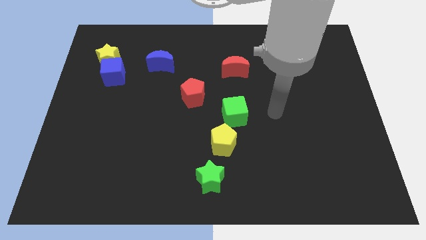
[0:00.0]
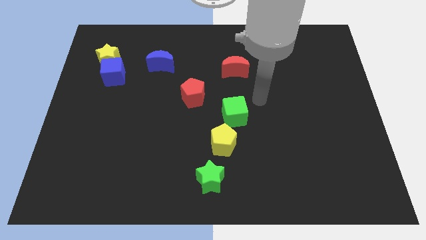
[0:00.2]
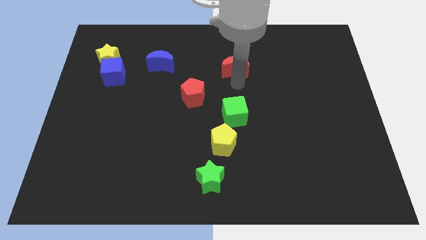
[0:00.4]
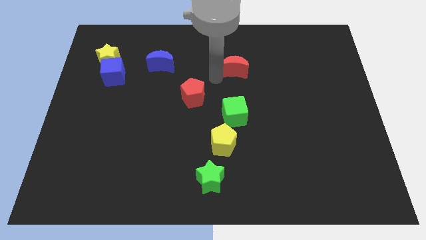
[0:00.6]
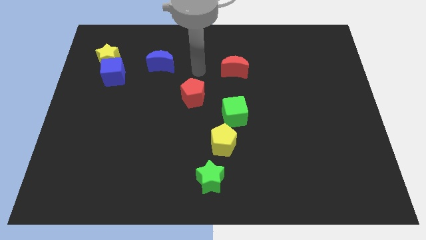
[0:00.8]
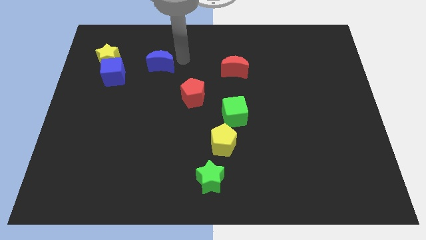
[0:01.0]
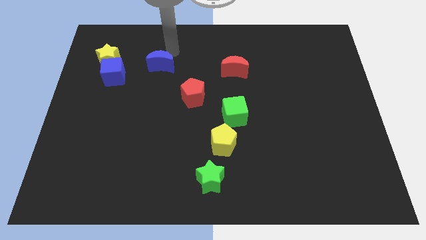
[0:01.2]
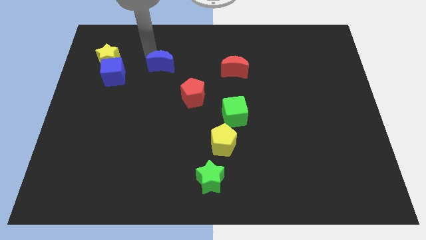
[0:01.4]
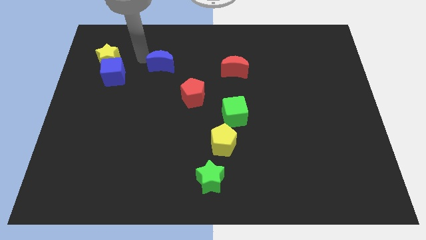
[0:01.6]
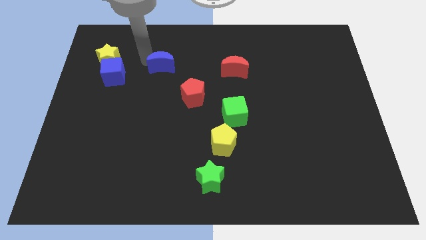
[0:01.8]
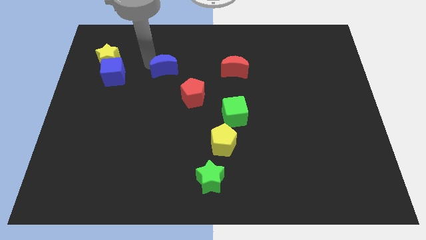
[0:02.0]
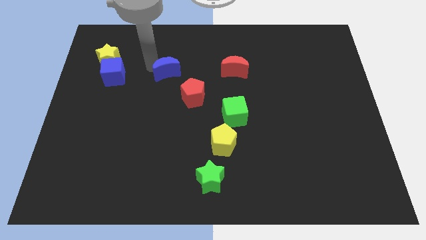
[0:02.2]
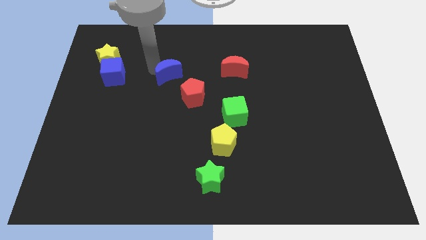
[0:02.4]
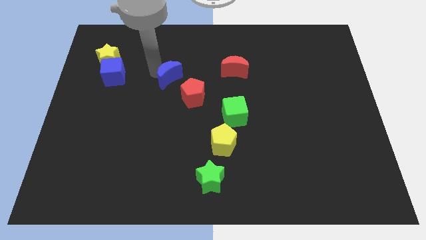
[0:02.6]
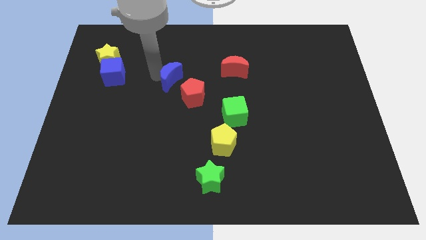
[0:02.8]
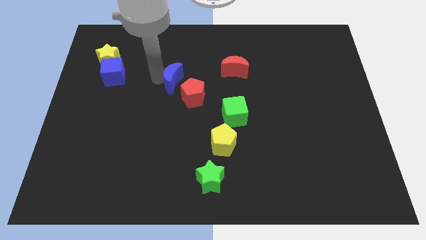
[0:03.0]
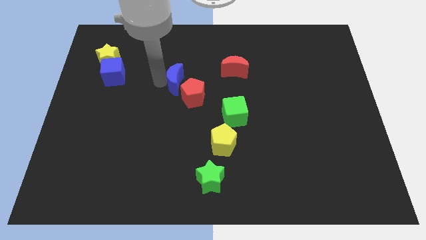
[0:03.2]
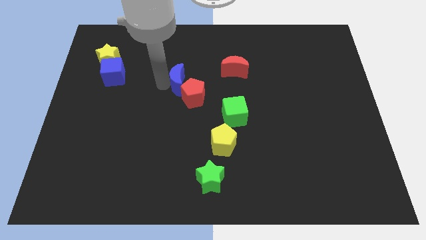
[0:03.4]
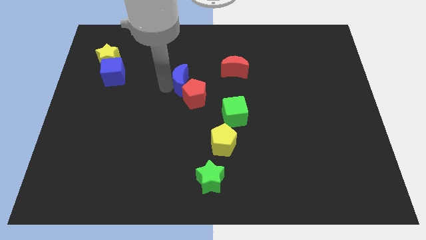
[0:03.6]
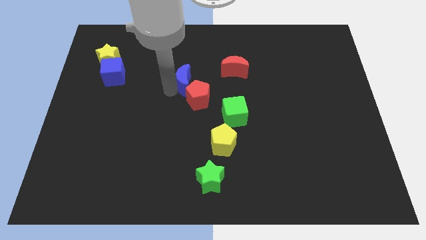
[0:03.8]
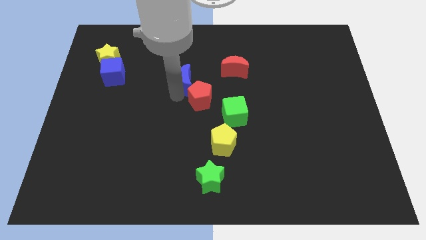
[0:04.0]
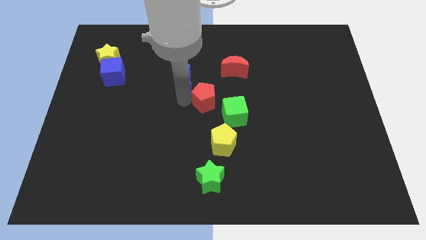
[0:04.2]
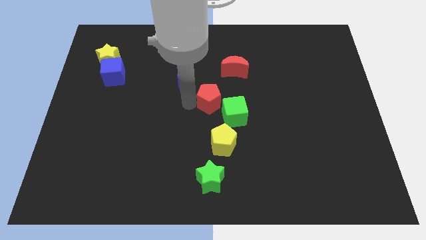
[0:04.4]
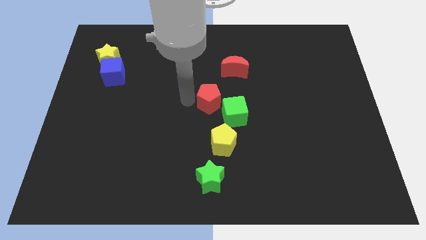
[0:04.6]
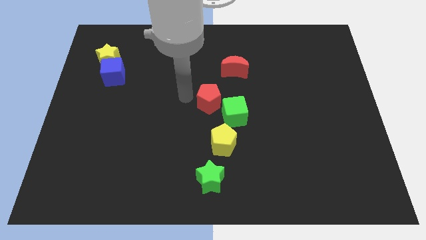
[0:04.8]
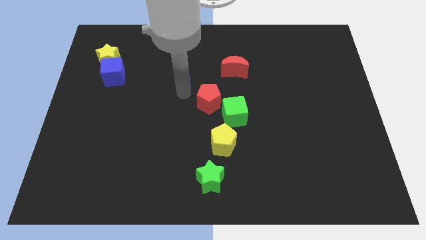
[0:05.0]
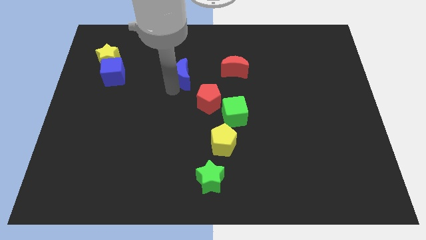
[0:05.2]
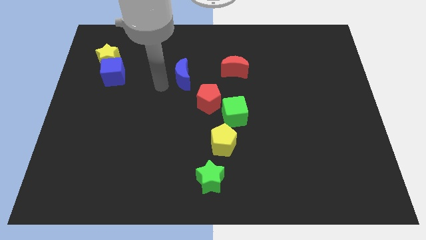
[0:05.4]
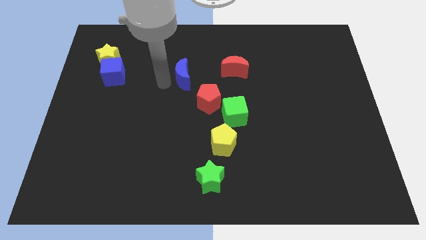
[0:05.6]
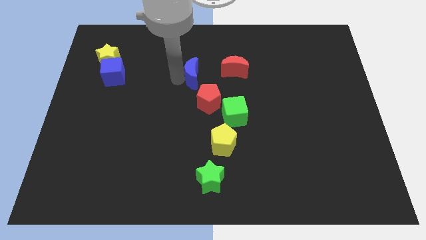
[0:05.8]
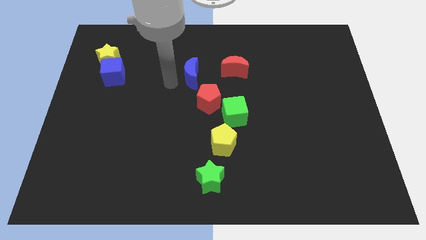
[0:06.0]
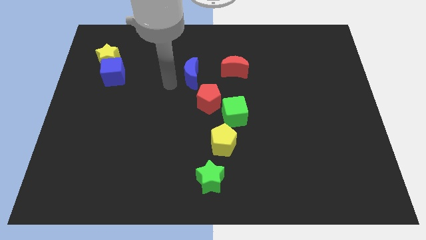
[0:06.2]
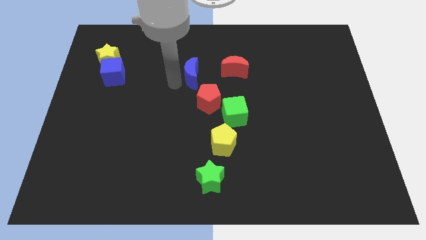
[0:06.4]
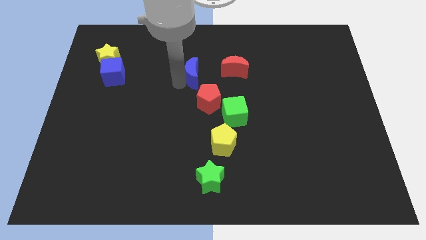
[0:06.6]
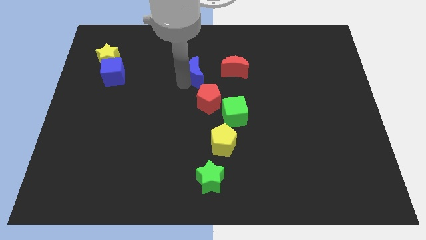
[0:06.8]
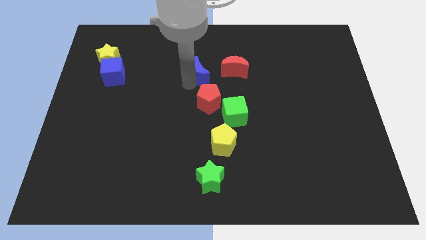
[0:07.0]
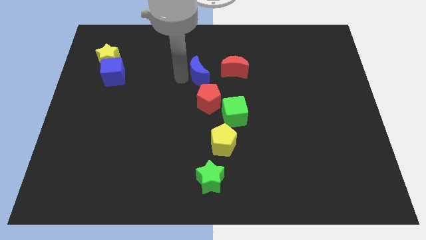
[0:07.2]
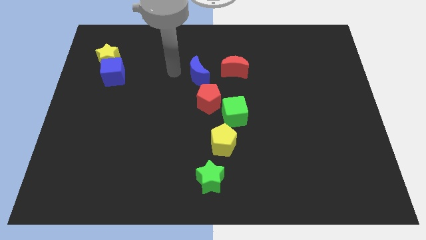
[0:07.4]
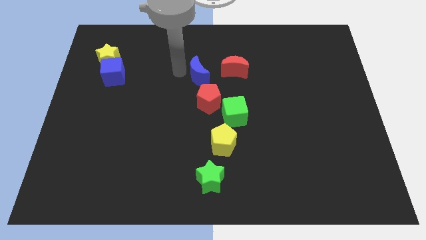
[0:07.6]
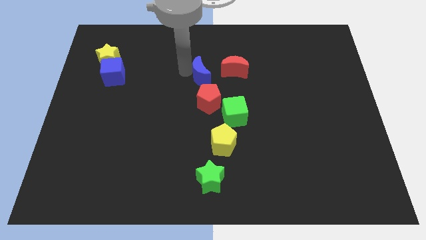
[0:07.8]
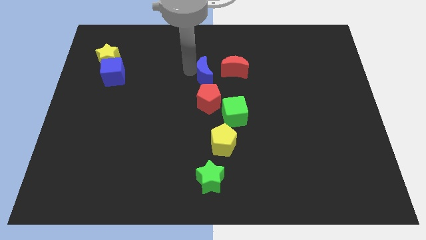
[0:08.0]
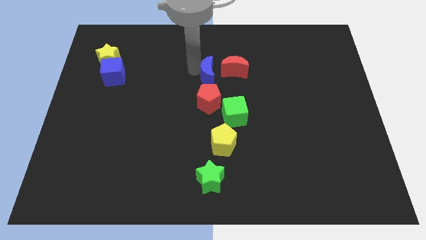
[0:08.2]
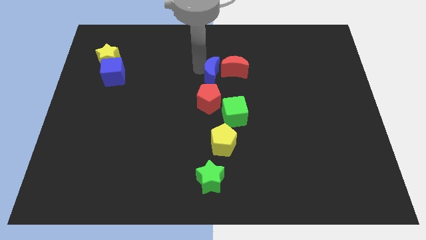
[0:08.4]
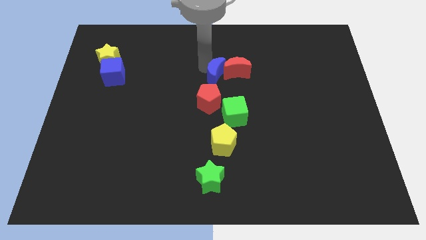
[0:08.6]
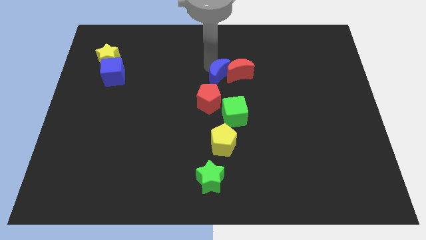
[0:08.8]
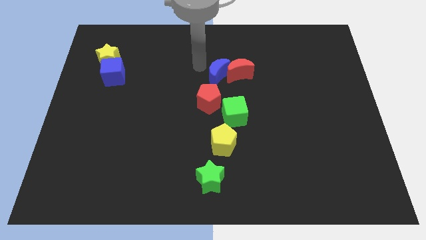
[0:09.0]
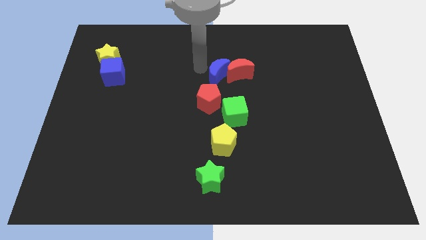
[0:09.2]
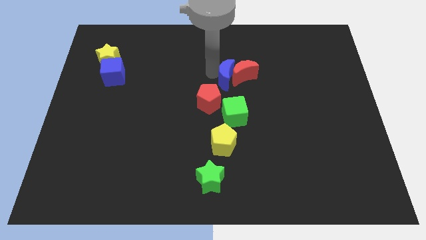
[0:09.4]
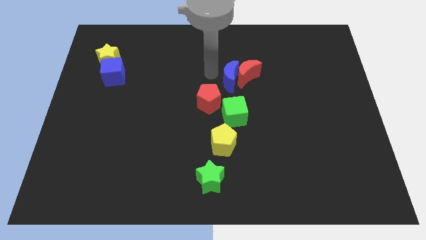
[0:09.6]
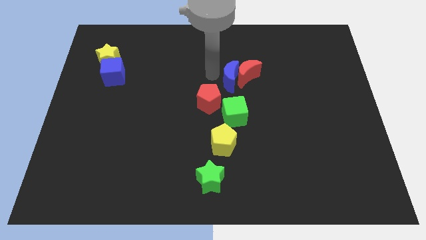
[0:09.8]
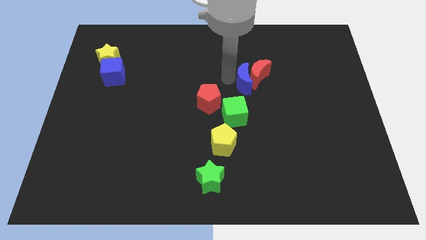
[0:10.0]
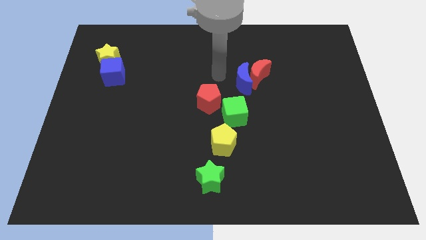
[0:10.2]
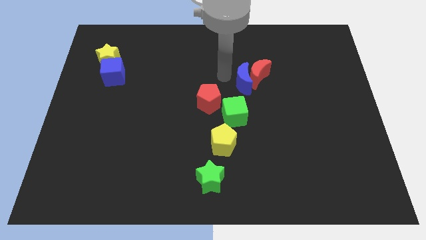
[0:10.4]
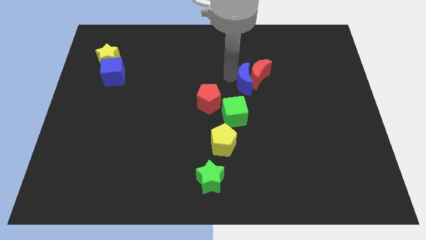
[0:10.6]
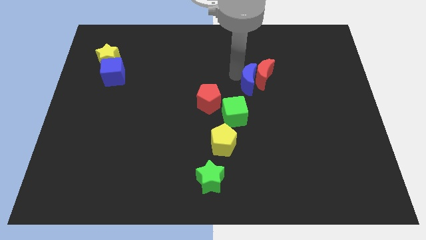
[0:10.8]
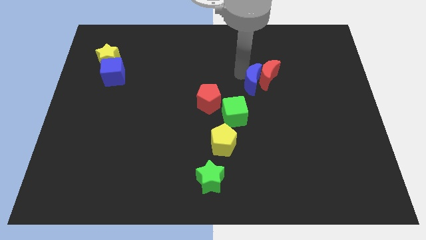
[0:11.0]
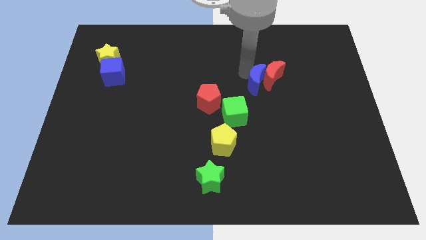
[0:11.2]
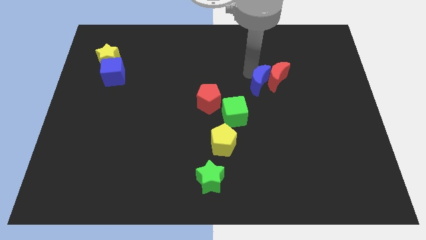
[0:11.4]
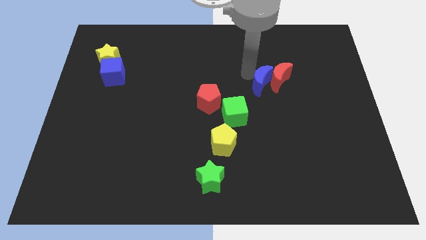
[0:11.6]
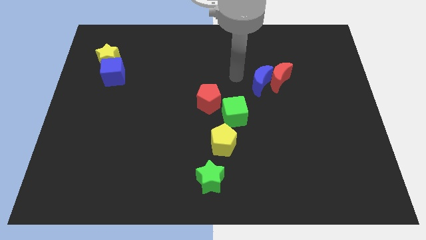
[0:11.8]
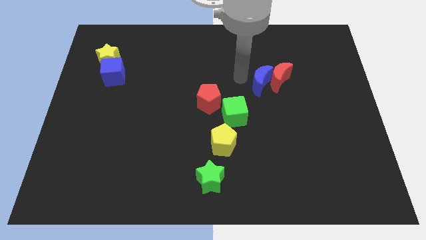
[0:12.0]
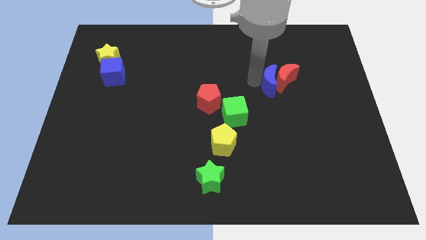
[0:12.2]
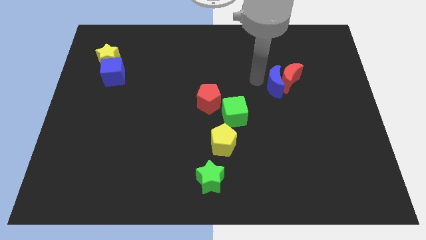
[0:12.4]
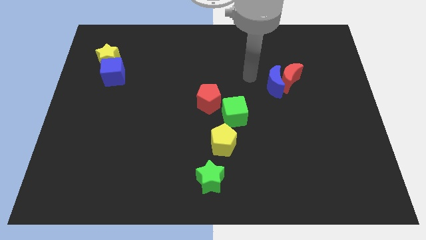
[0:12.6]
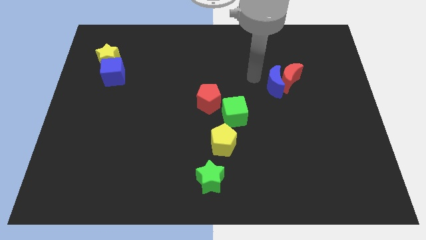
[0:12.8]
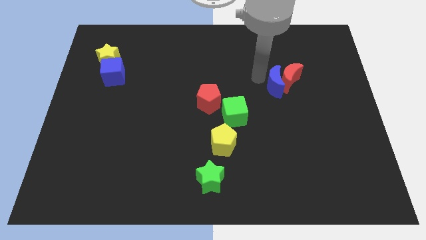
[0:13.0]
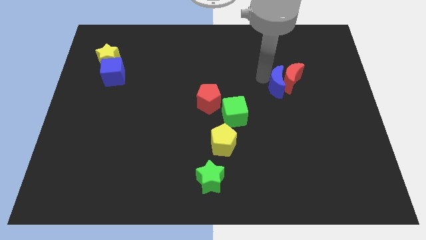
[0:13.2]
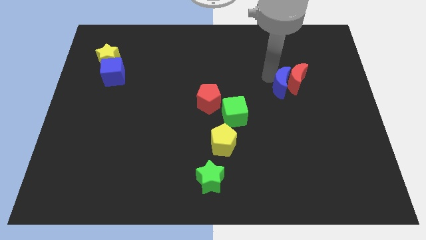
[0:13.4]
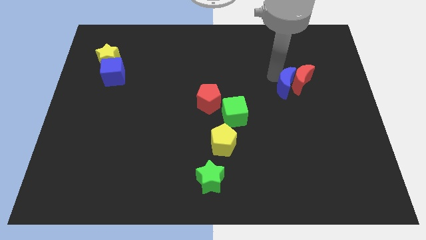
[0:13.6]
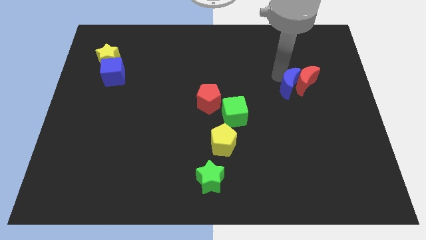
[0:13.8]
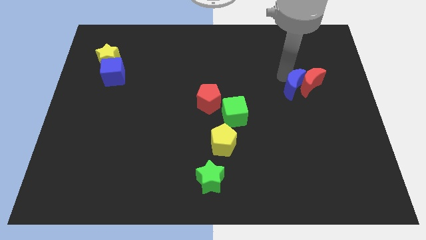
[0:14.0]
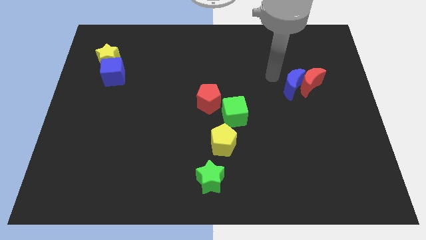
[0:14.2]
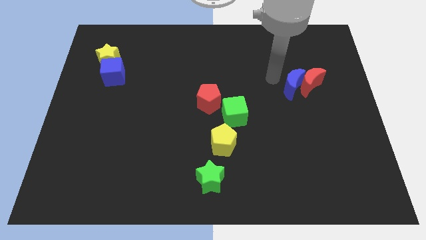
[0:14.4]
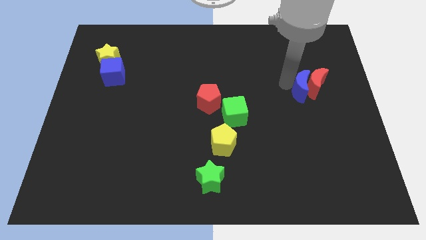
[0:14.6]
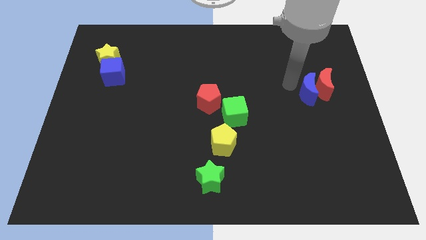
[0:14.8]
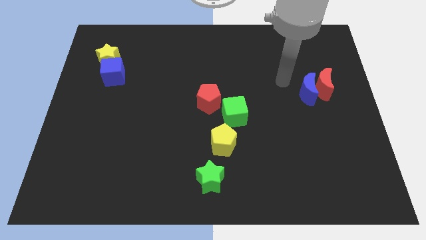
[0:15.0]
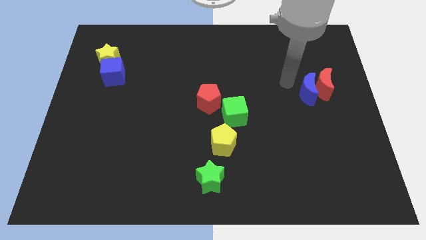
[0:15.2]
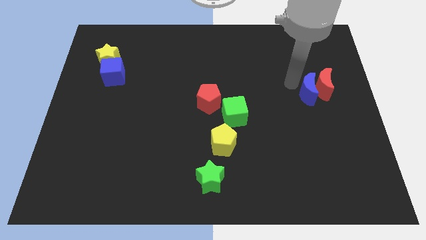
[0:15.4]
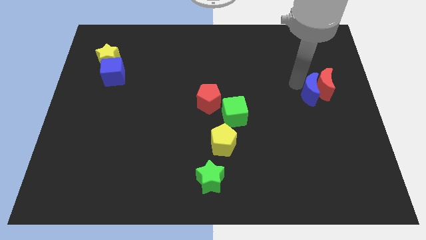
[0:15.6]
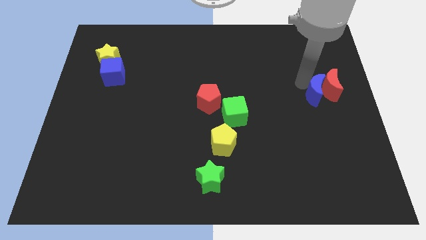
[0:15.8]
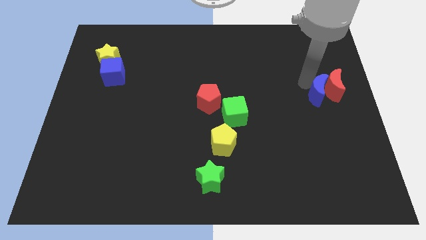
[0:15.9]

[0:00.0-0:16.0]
put the blue moon to the right side
